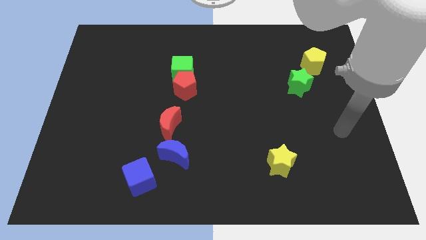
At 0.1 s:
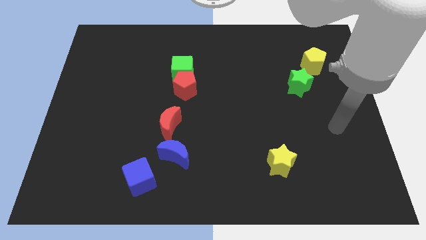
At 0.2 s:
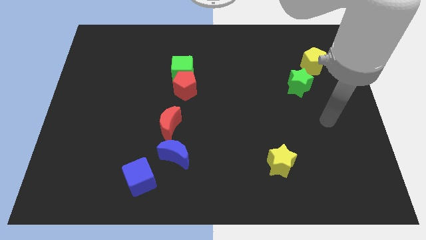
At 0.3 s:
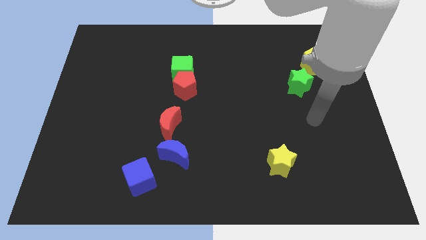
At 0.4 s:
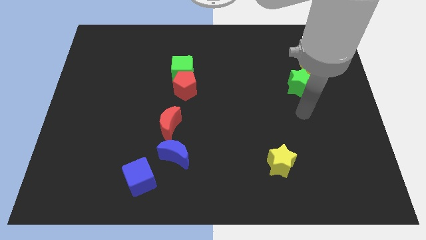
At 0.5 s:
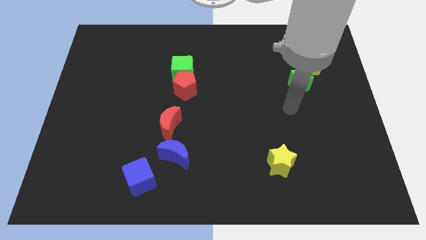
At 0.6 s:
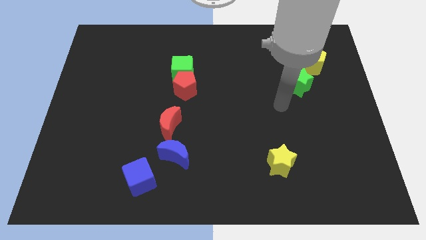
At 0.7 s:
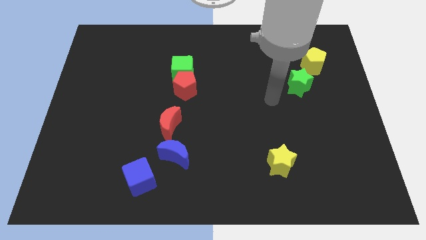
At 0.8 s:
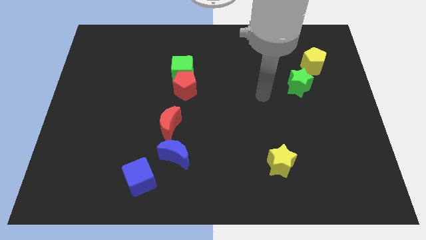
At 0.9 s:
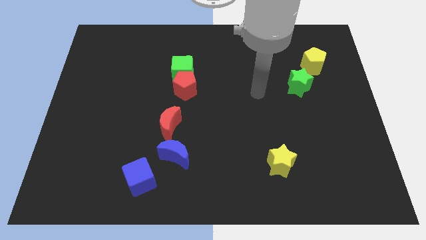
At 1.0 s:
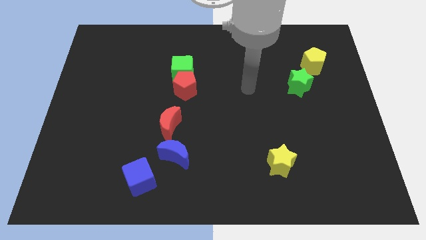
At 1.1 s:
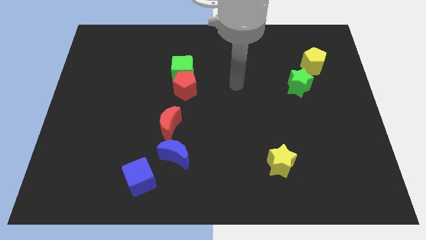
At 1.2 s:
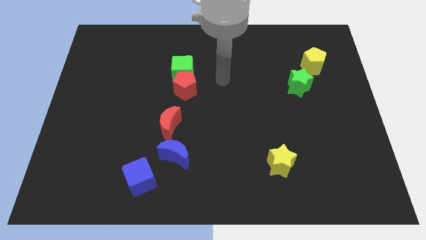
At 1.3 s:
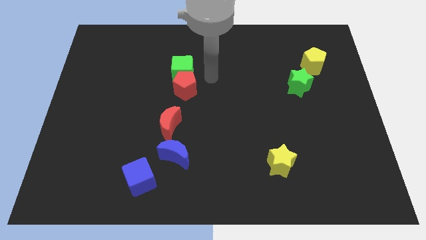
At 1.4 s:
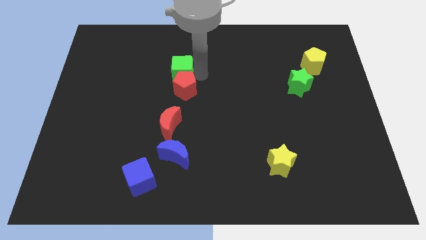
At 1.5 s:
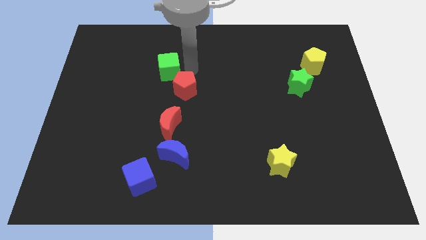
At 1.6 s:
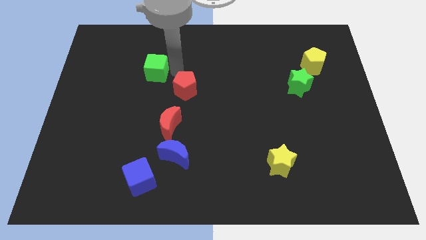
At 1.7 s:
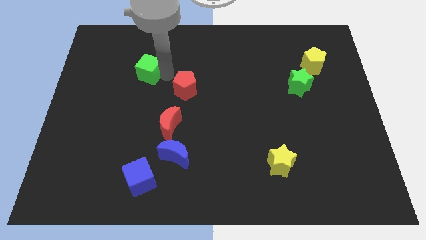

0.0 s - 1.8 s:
pull the red pentagon apart from the green cube

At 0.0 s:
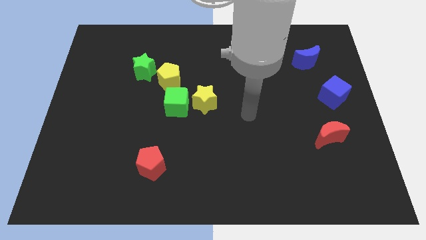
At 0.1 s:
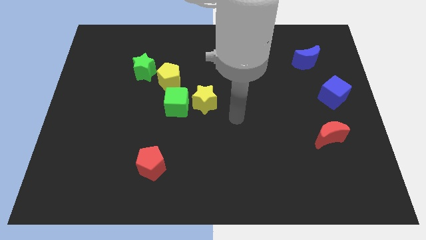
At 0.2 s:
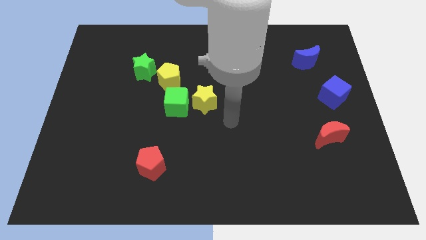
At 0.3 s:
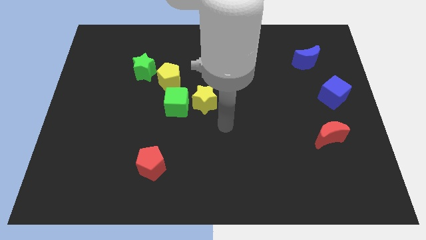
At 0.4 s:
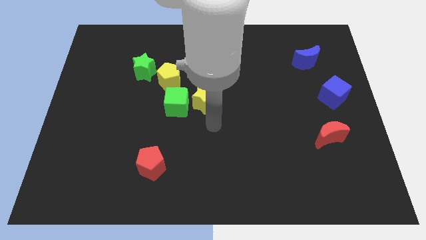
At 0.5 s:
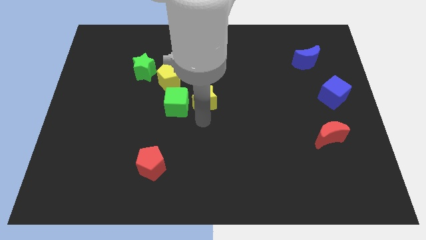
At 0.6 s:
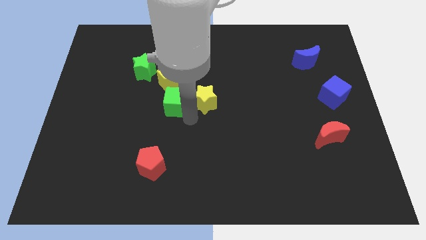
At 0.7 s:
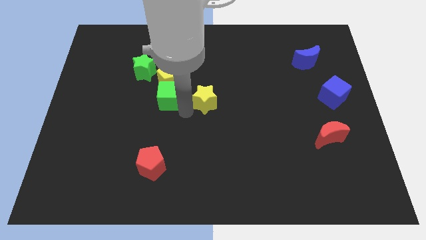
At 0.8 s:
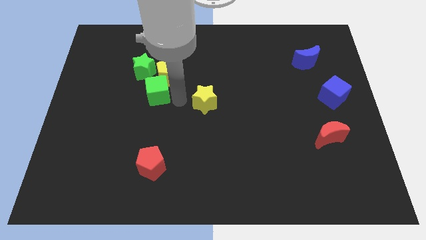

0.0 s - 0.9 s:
move the yellow star away from the green cube

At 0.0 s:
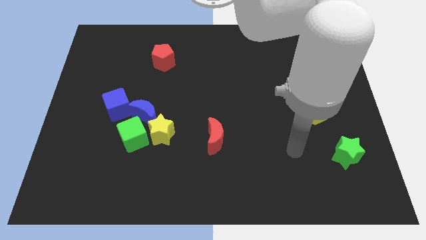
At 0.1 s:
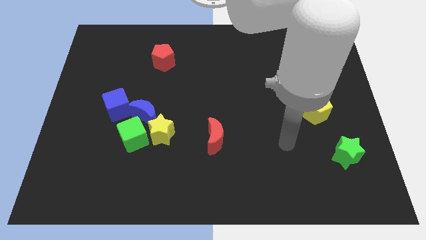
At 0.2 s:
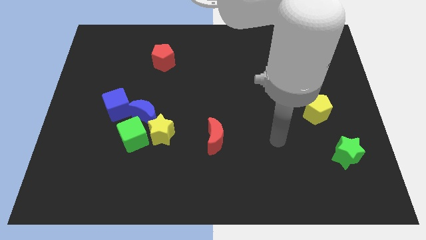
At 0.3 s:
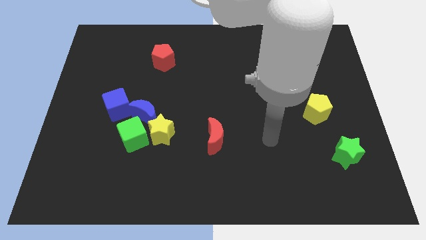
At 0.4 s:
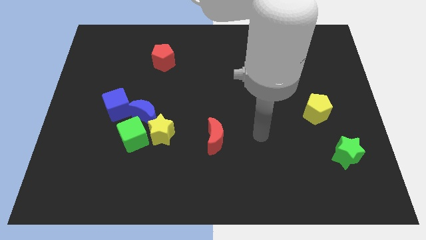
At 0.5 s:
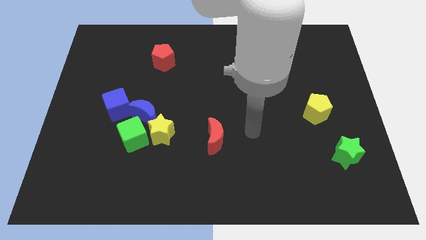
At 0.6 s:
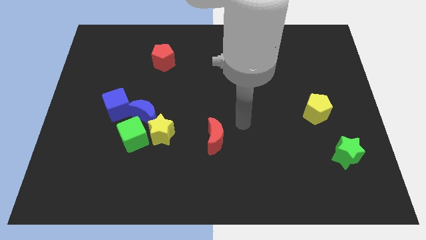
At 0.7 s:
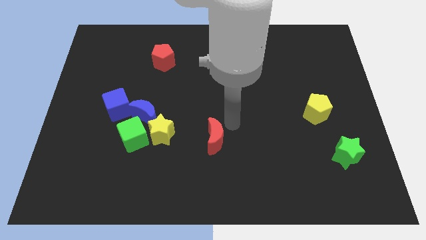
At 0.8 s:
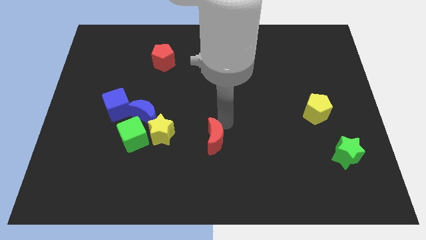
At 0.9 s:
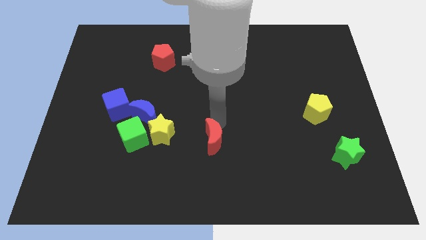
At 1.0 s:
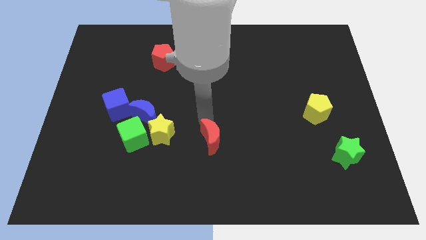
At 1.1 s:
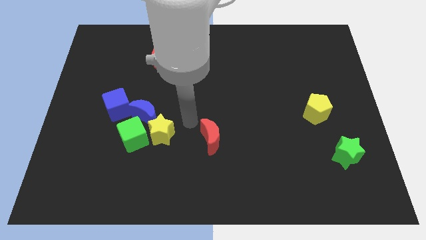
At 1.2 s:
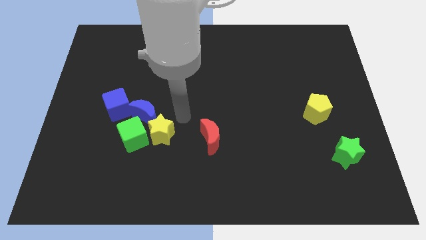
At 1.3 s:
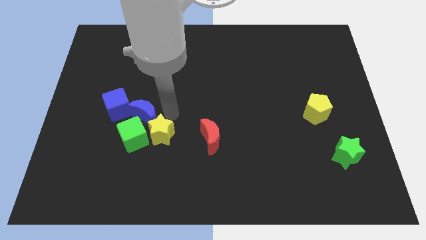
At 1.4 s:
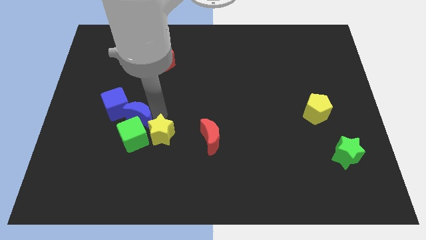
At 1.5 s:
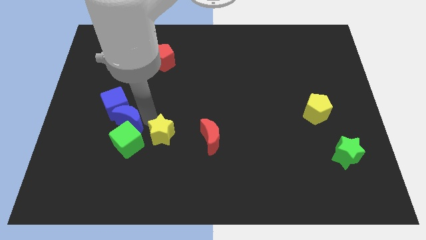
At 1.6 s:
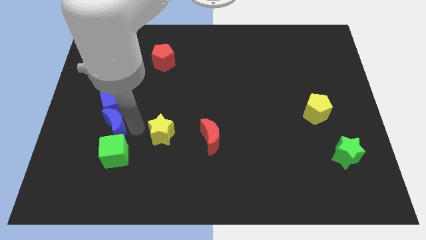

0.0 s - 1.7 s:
separate the yellow star from the green cube and blue moon

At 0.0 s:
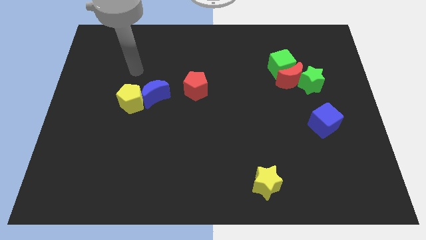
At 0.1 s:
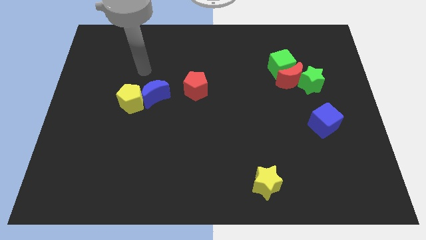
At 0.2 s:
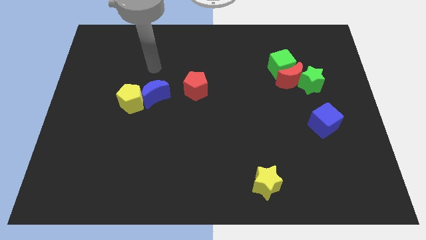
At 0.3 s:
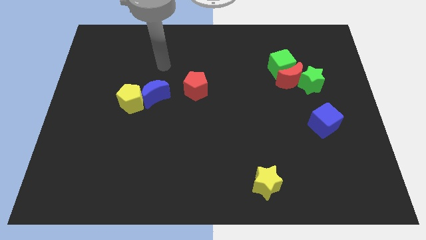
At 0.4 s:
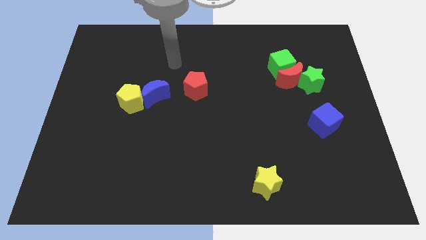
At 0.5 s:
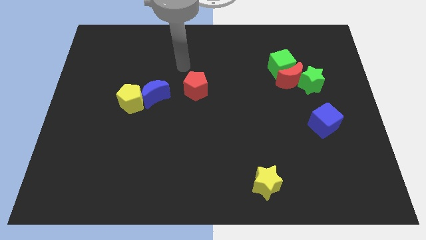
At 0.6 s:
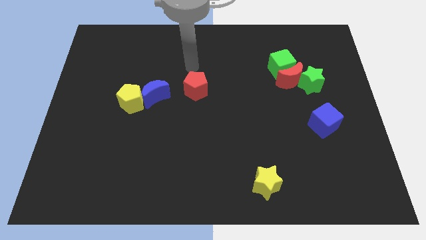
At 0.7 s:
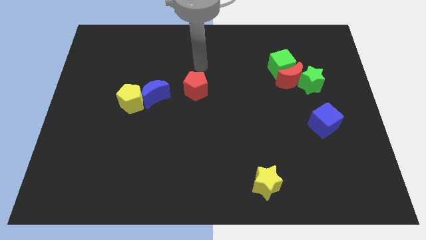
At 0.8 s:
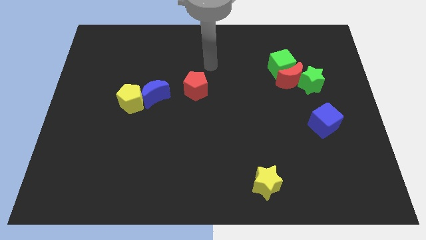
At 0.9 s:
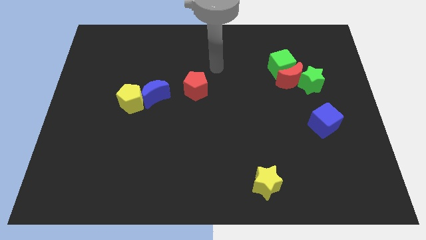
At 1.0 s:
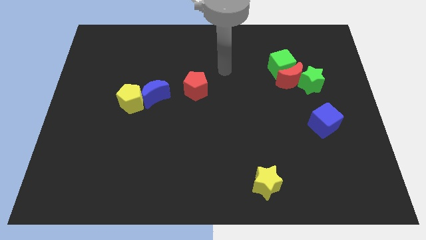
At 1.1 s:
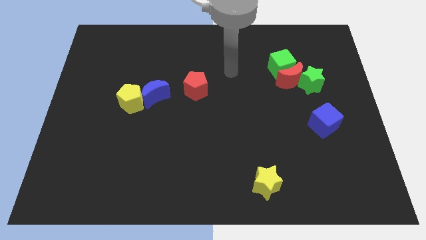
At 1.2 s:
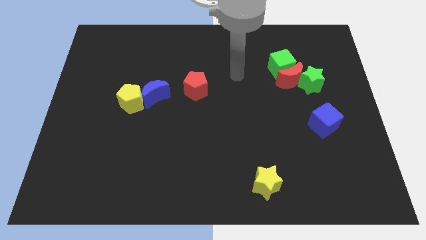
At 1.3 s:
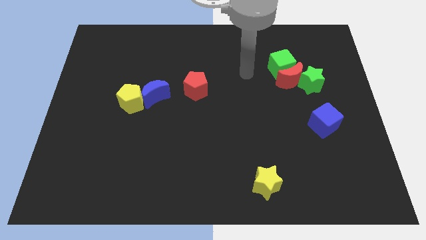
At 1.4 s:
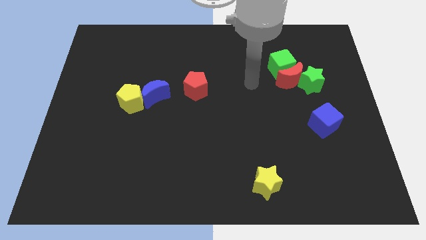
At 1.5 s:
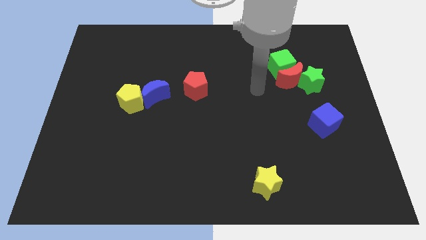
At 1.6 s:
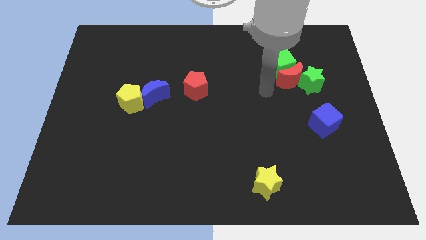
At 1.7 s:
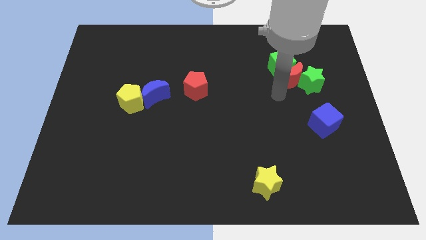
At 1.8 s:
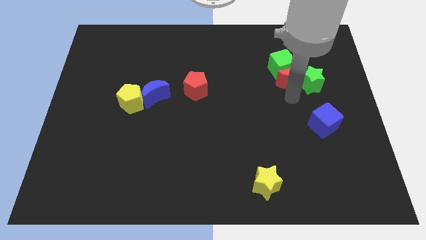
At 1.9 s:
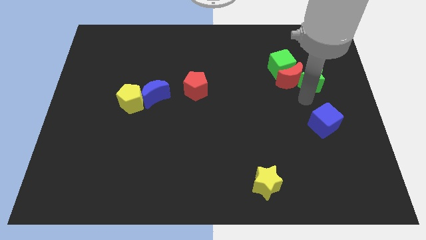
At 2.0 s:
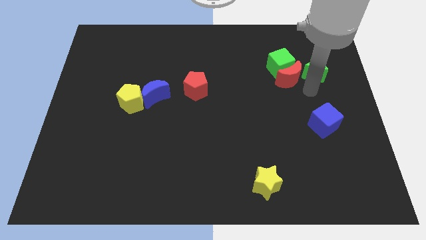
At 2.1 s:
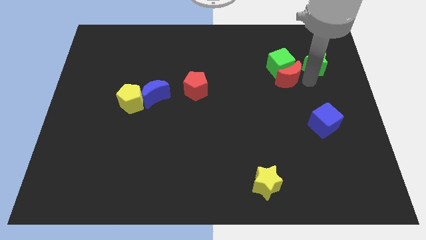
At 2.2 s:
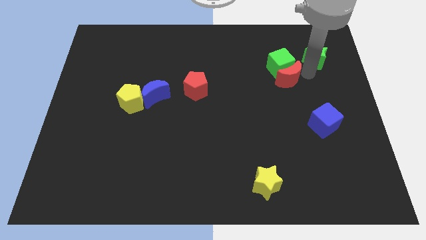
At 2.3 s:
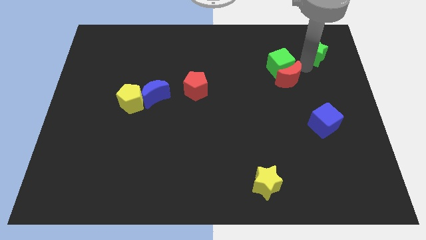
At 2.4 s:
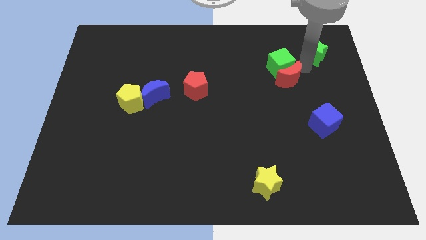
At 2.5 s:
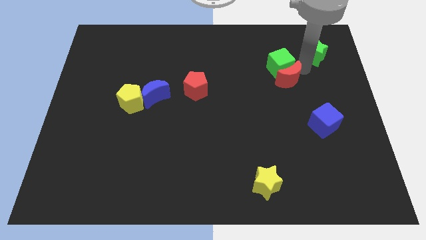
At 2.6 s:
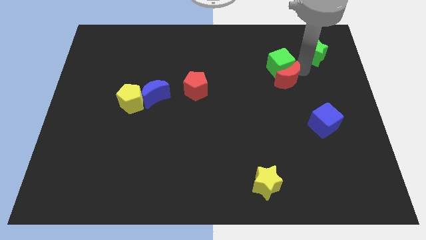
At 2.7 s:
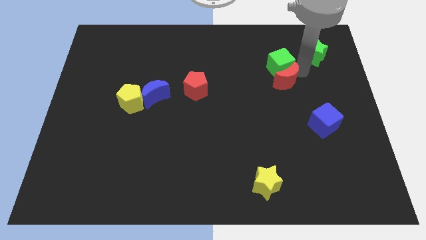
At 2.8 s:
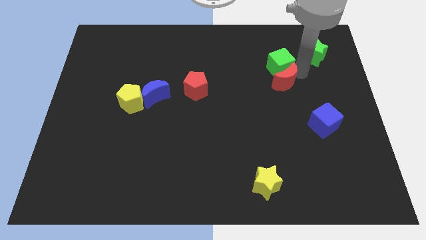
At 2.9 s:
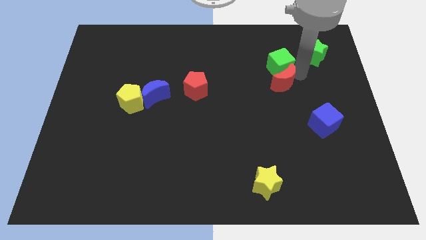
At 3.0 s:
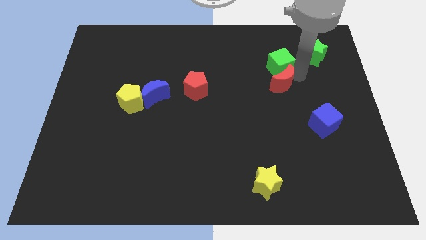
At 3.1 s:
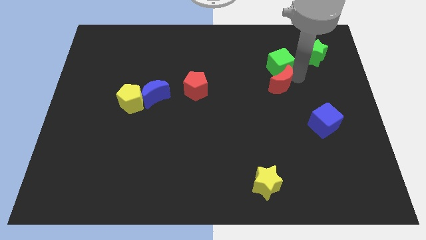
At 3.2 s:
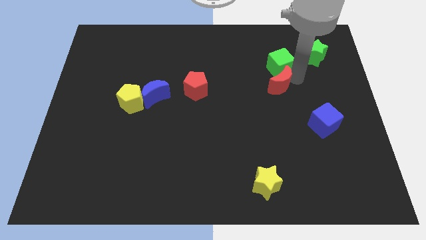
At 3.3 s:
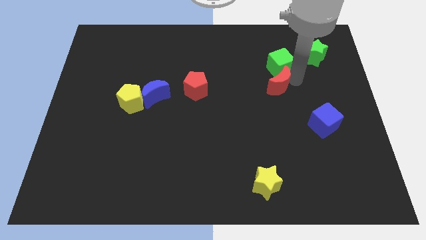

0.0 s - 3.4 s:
pull the red moon apart from the green cube and green star

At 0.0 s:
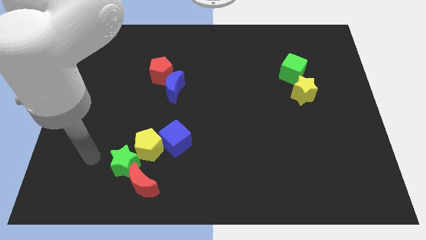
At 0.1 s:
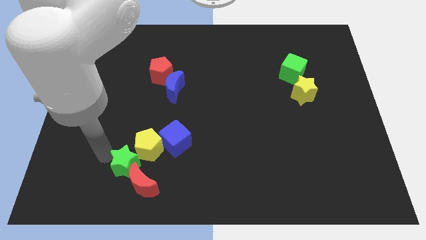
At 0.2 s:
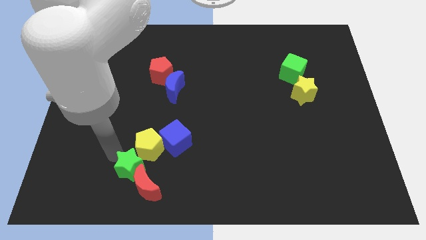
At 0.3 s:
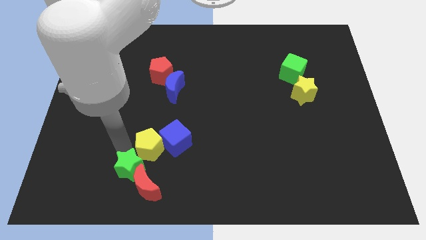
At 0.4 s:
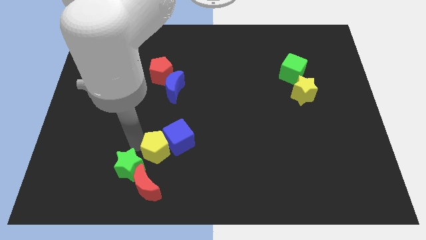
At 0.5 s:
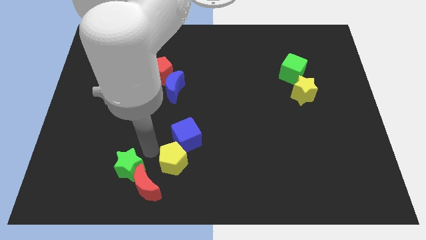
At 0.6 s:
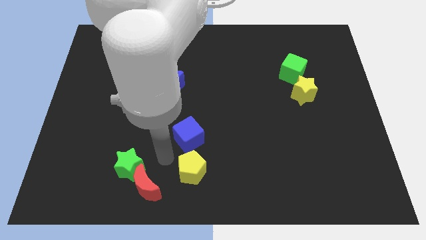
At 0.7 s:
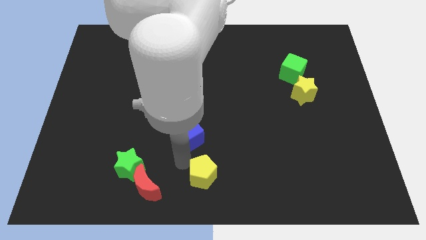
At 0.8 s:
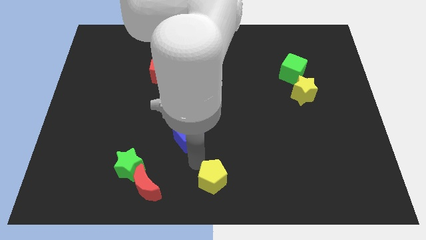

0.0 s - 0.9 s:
pull the blue cube apart from the yellow pentagon

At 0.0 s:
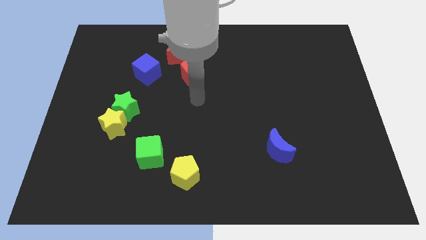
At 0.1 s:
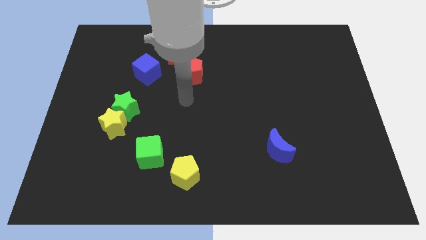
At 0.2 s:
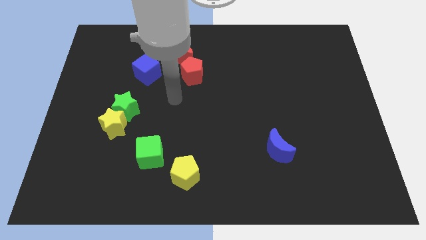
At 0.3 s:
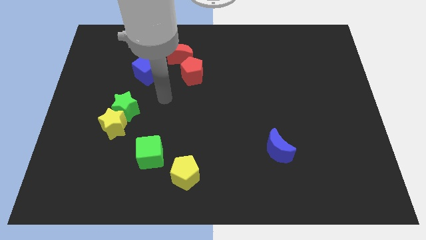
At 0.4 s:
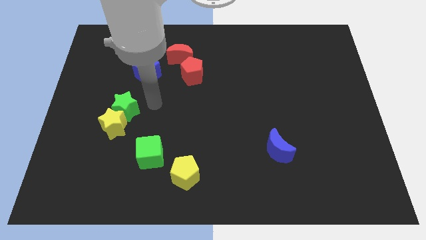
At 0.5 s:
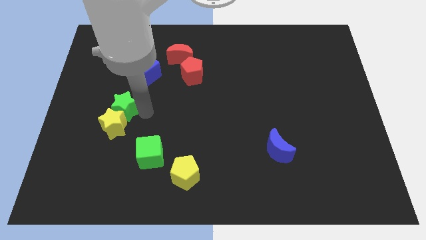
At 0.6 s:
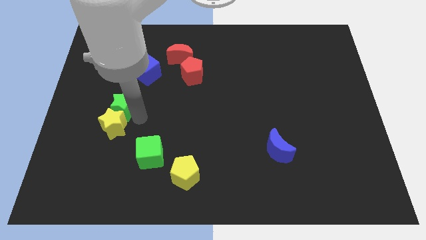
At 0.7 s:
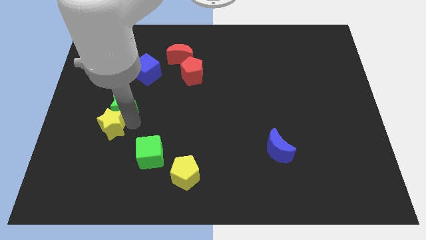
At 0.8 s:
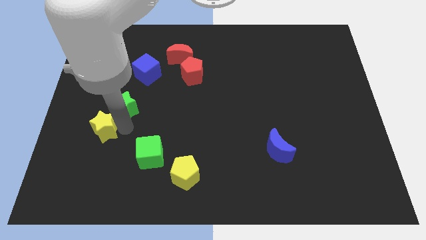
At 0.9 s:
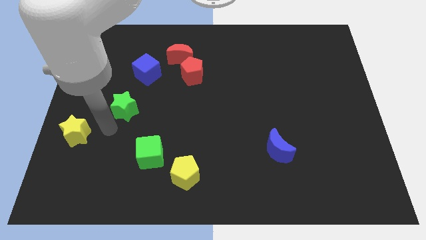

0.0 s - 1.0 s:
move the green star away from the yellow star
